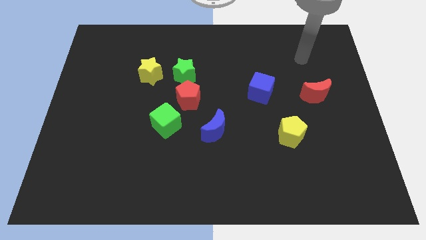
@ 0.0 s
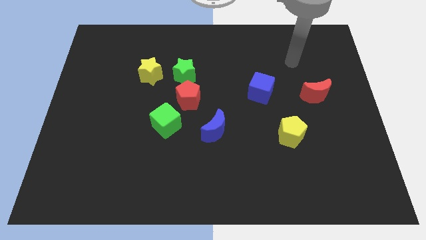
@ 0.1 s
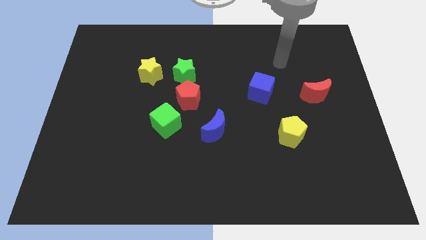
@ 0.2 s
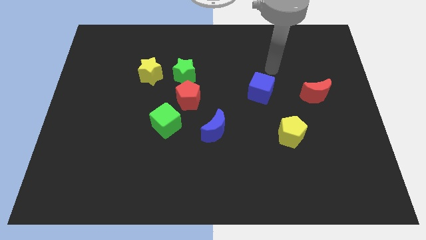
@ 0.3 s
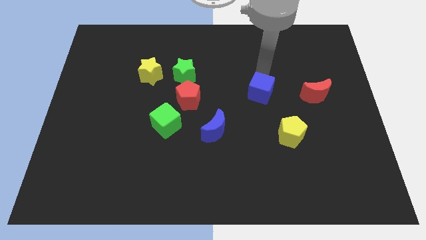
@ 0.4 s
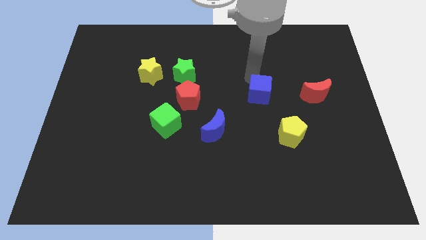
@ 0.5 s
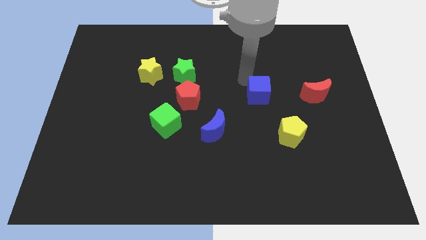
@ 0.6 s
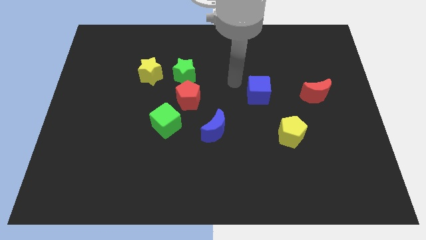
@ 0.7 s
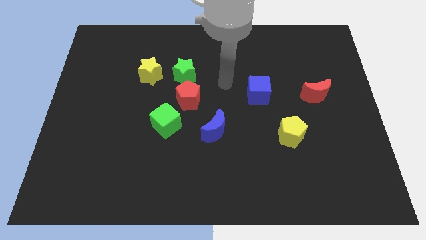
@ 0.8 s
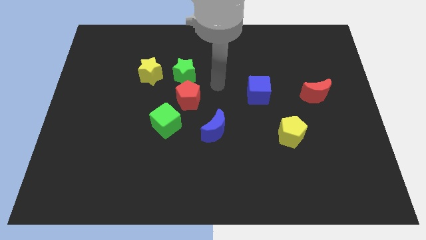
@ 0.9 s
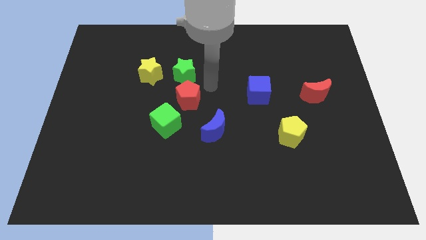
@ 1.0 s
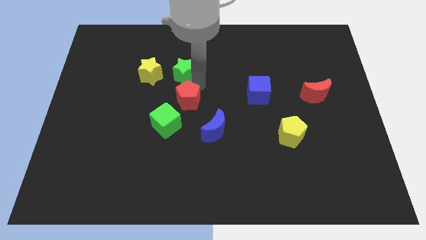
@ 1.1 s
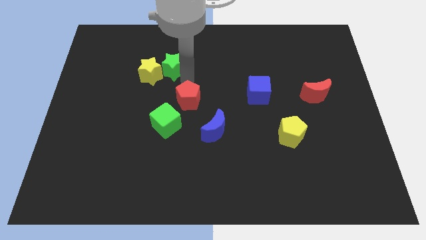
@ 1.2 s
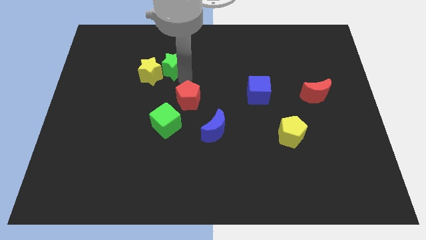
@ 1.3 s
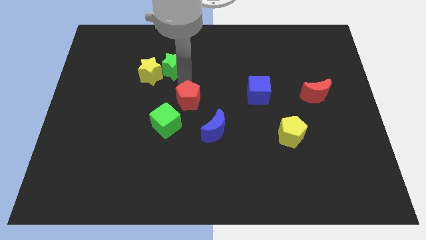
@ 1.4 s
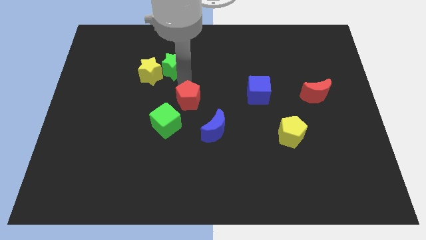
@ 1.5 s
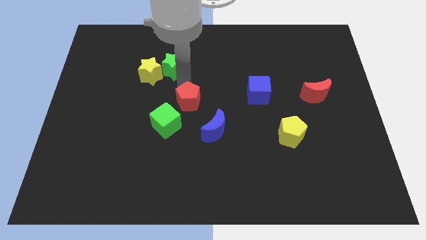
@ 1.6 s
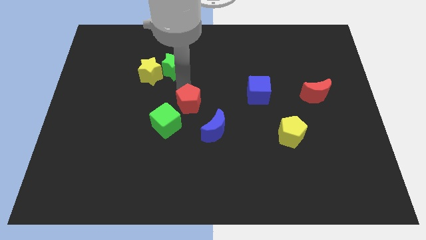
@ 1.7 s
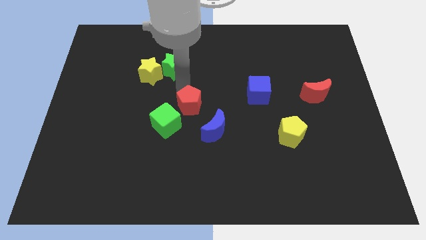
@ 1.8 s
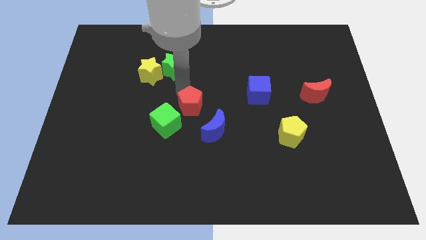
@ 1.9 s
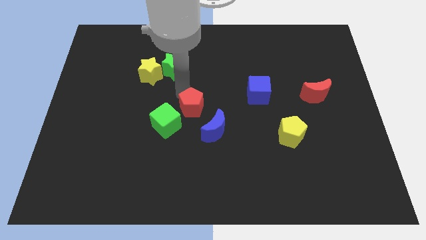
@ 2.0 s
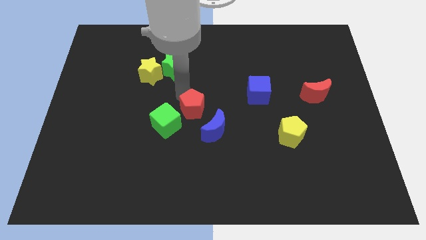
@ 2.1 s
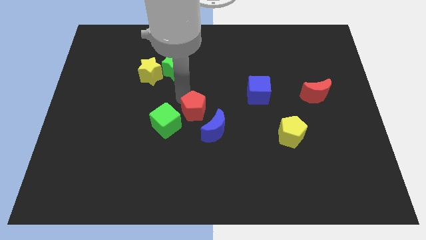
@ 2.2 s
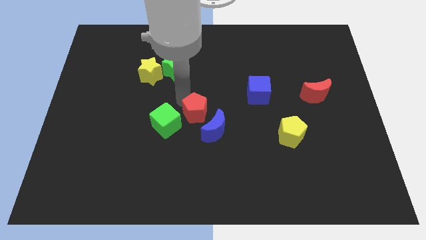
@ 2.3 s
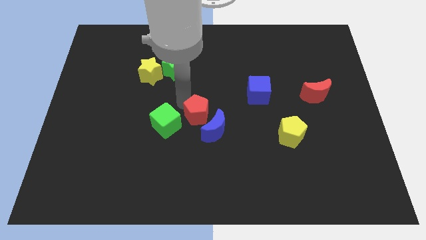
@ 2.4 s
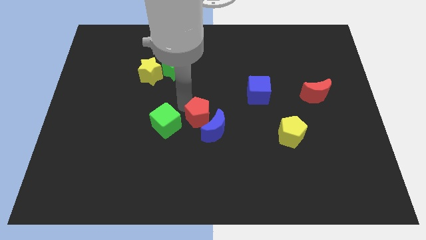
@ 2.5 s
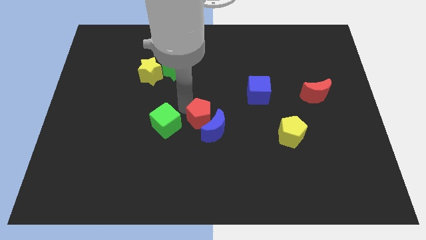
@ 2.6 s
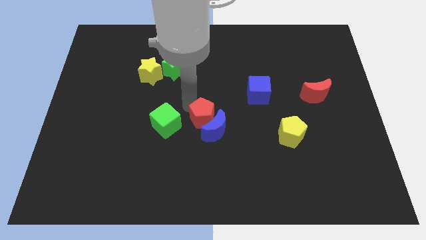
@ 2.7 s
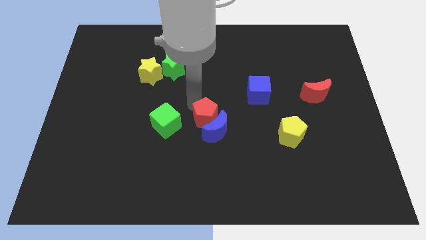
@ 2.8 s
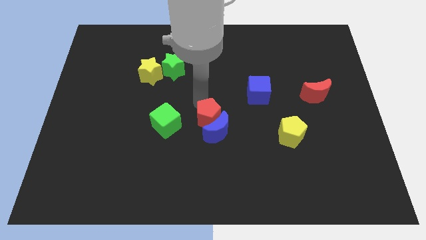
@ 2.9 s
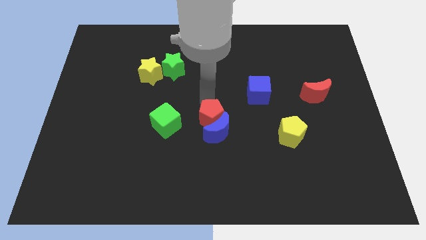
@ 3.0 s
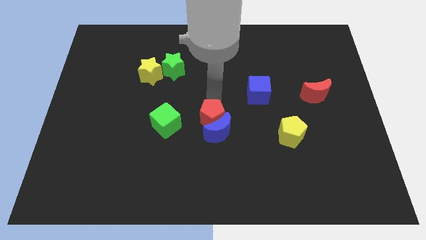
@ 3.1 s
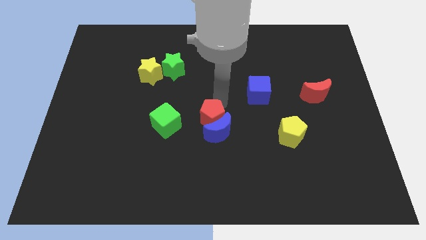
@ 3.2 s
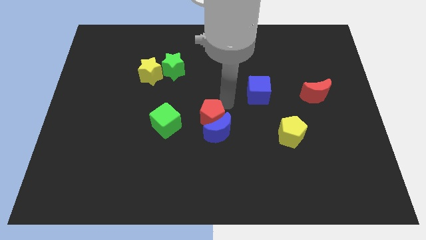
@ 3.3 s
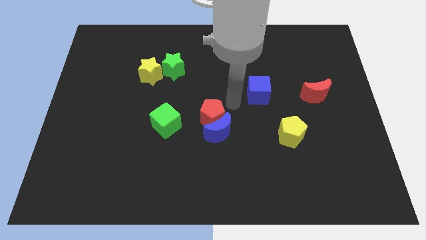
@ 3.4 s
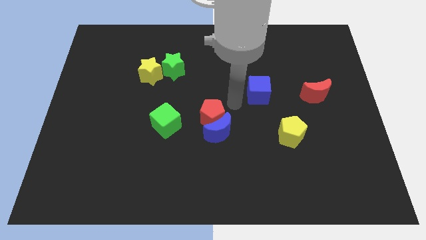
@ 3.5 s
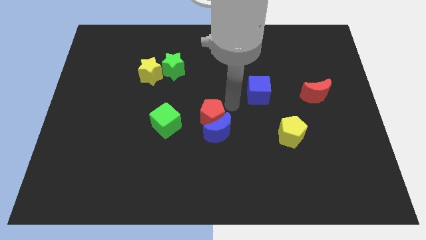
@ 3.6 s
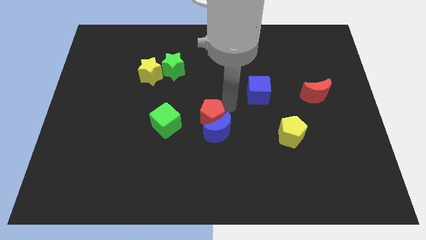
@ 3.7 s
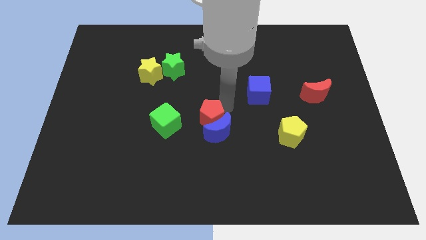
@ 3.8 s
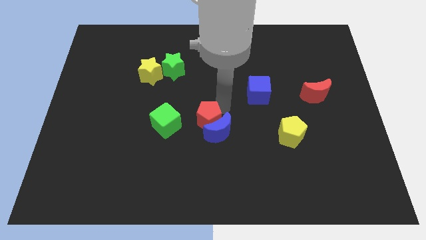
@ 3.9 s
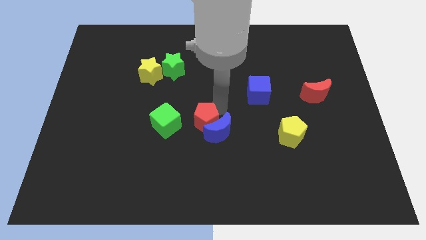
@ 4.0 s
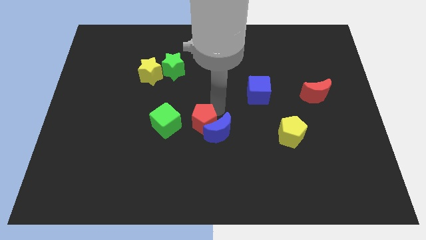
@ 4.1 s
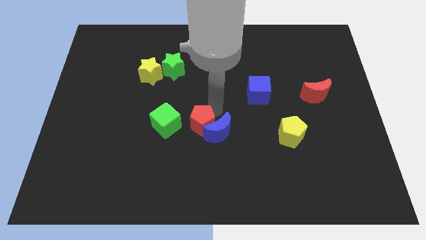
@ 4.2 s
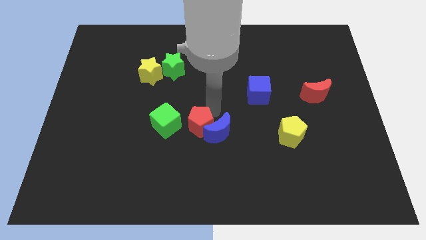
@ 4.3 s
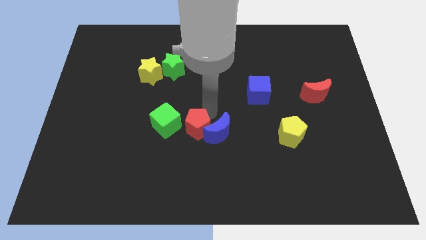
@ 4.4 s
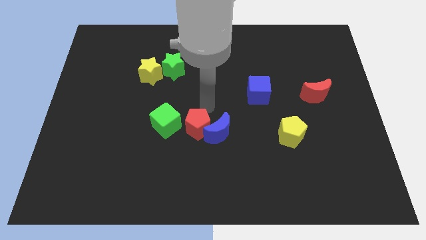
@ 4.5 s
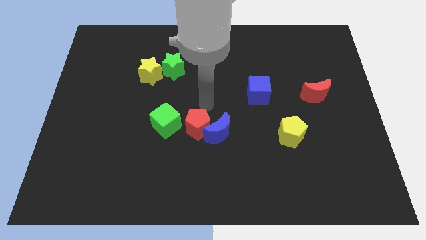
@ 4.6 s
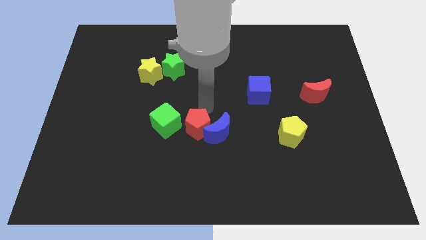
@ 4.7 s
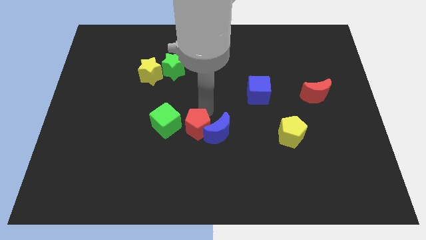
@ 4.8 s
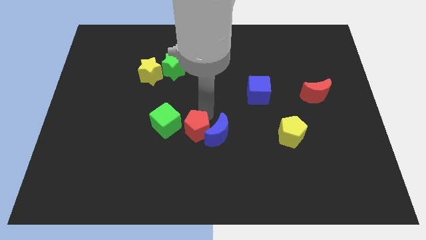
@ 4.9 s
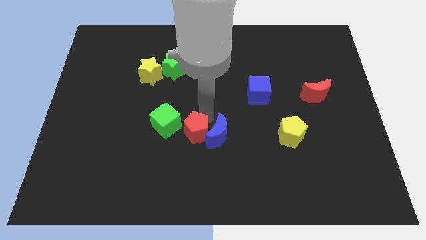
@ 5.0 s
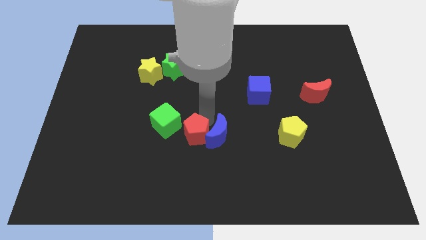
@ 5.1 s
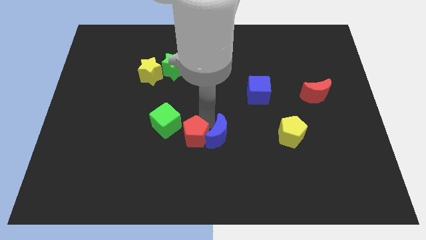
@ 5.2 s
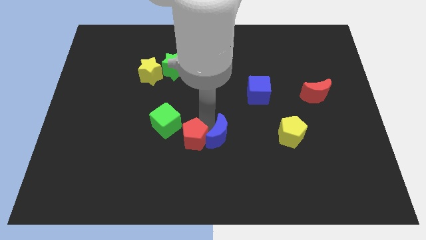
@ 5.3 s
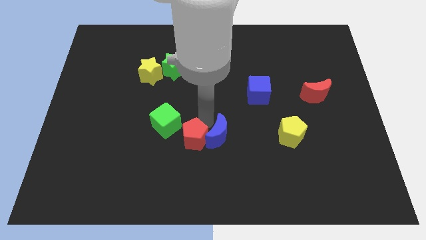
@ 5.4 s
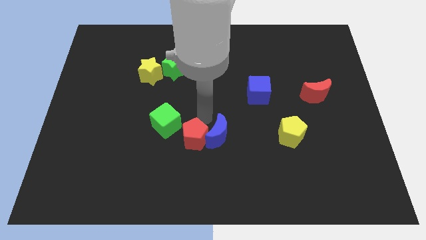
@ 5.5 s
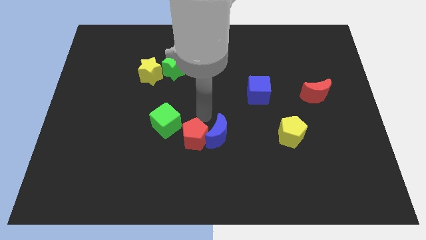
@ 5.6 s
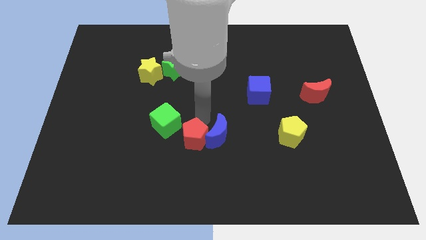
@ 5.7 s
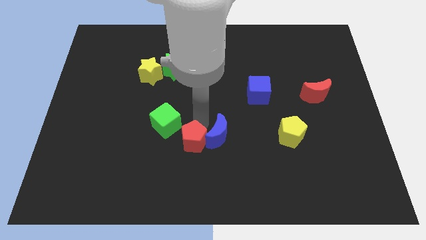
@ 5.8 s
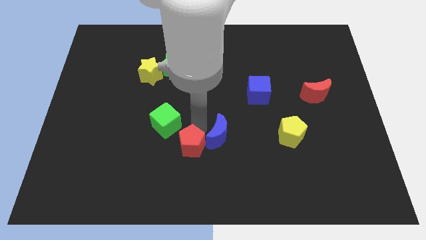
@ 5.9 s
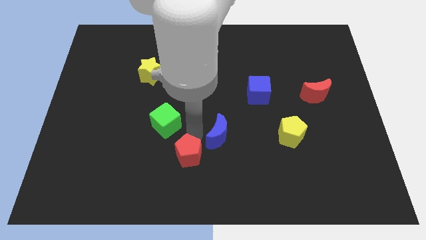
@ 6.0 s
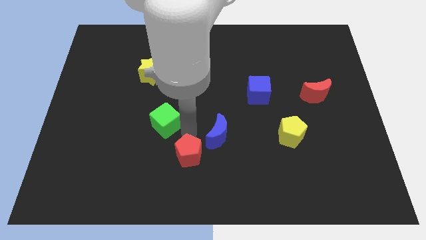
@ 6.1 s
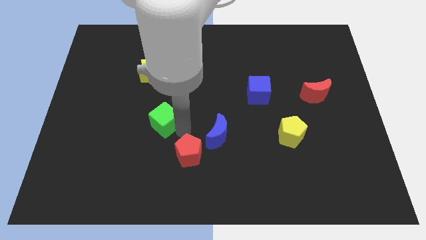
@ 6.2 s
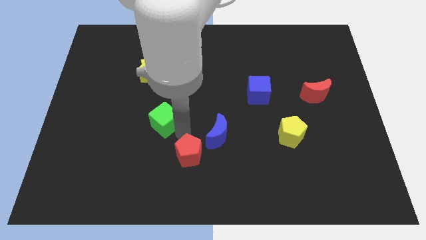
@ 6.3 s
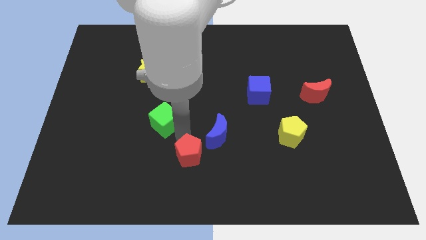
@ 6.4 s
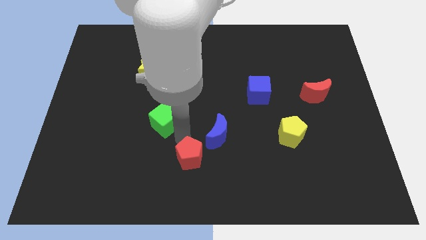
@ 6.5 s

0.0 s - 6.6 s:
push the red pentagon to the bottom side
